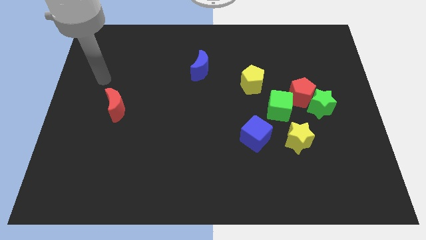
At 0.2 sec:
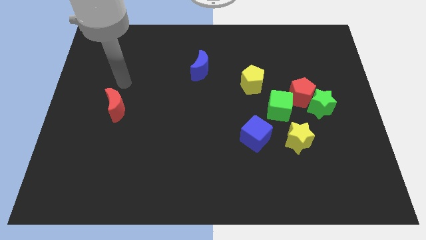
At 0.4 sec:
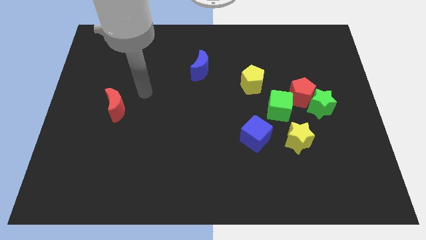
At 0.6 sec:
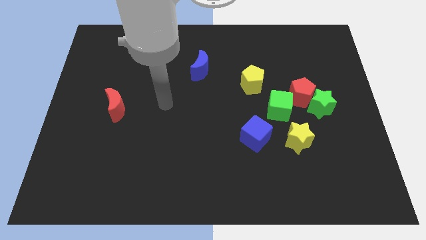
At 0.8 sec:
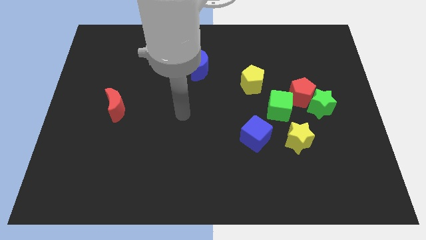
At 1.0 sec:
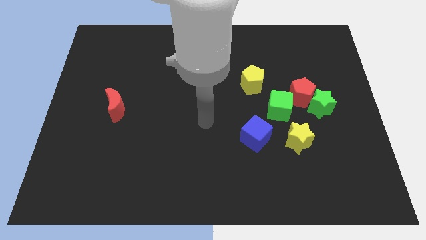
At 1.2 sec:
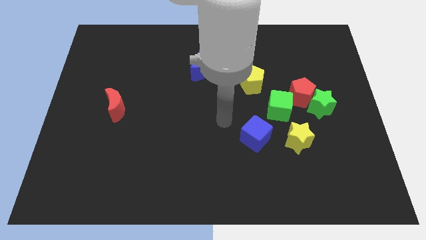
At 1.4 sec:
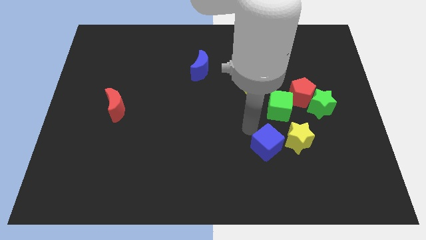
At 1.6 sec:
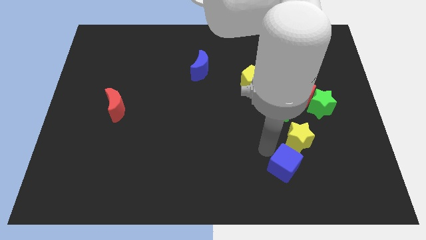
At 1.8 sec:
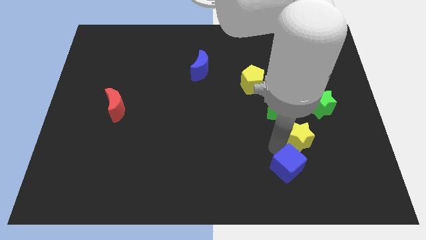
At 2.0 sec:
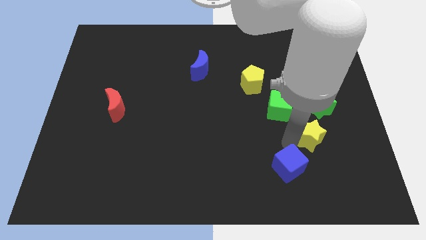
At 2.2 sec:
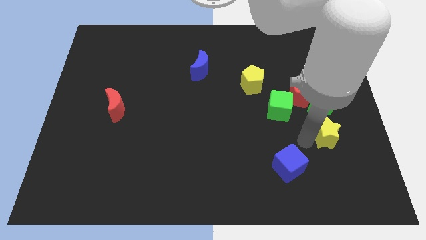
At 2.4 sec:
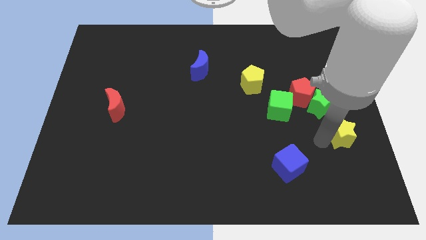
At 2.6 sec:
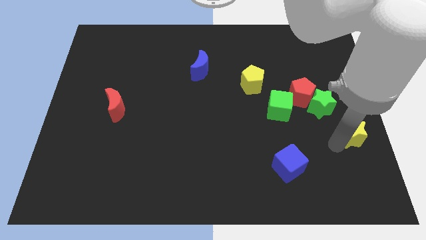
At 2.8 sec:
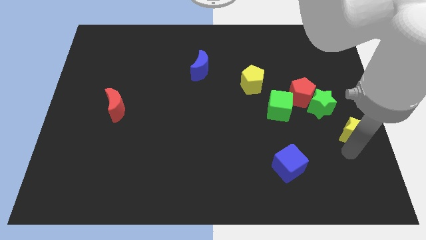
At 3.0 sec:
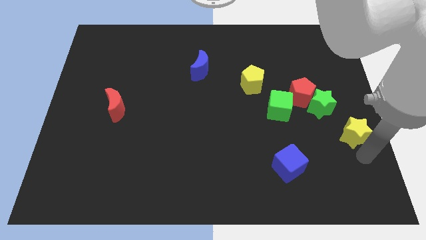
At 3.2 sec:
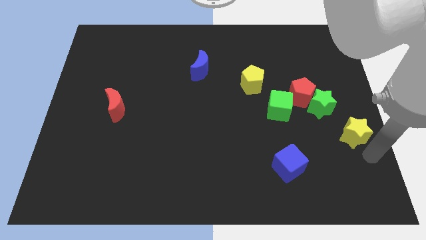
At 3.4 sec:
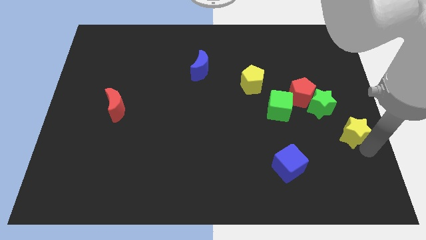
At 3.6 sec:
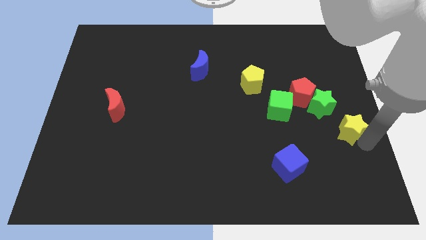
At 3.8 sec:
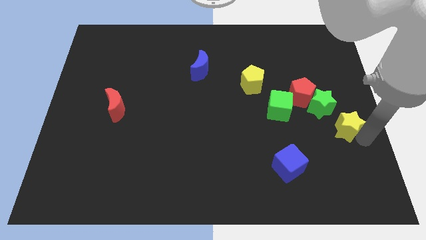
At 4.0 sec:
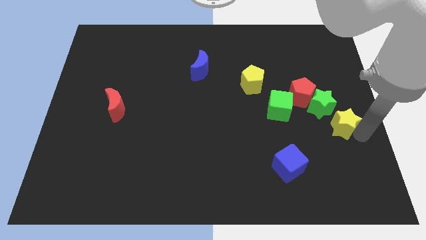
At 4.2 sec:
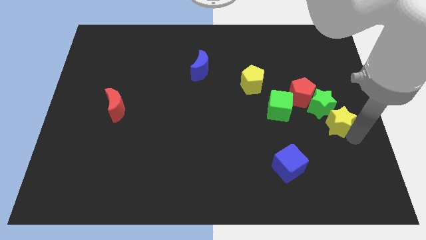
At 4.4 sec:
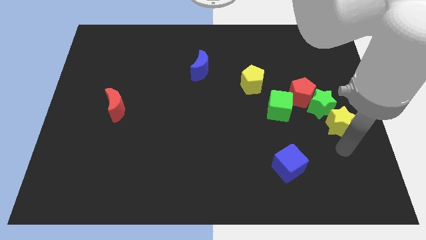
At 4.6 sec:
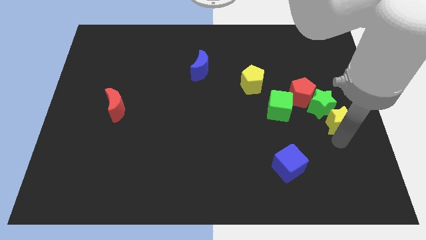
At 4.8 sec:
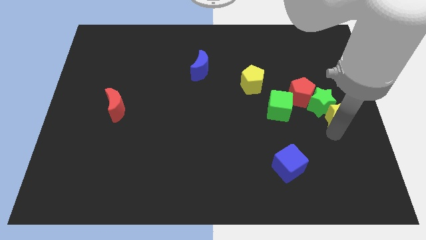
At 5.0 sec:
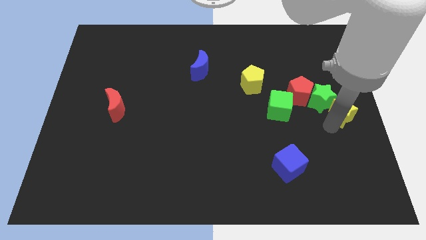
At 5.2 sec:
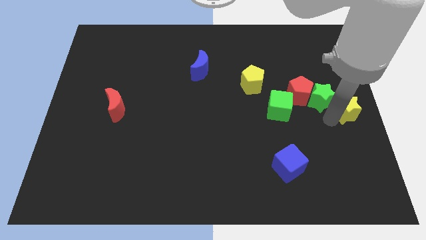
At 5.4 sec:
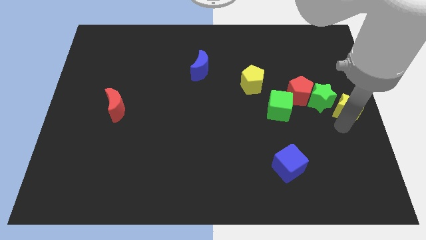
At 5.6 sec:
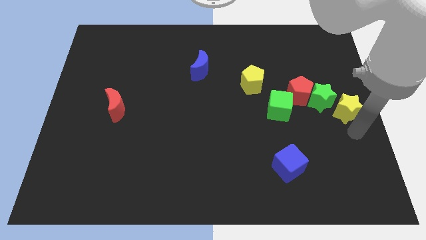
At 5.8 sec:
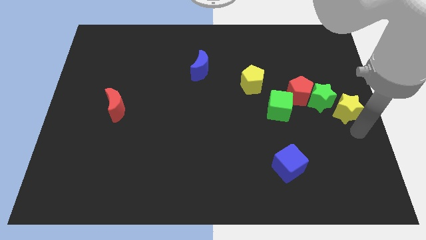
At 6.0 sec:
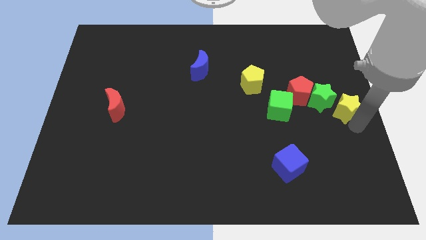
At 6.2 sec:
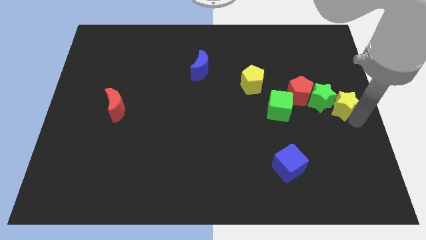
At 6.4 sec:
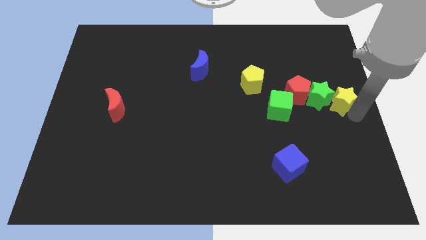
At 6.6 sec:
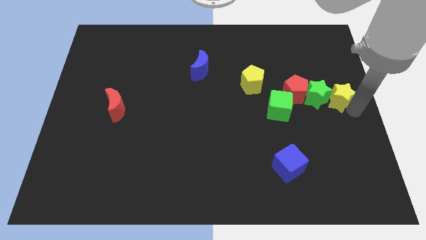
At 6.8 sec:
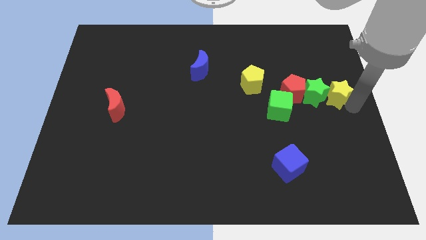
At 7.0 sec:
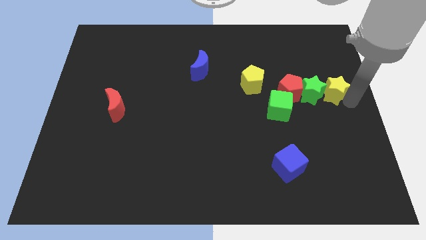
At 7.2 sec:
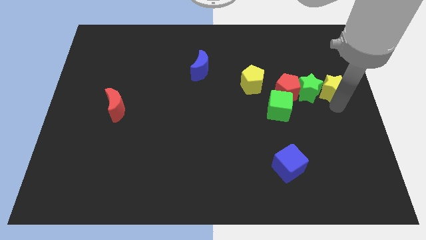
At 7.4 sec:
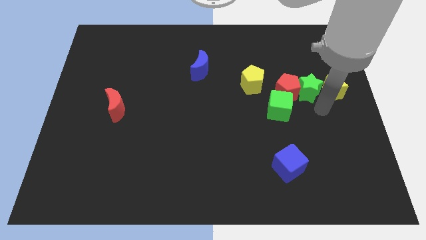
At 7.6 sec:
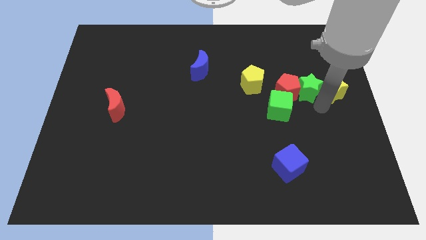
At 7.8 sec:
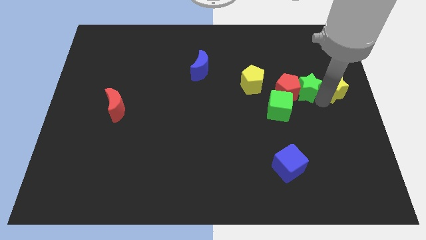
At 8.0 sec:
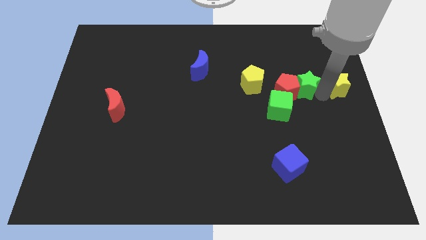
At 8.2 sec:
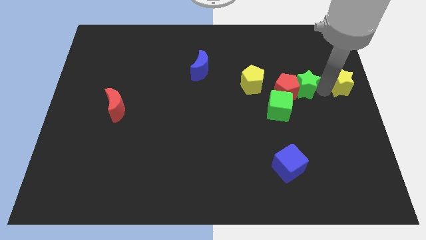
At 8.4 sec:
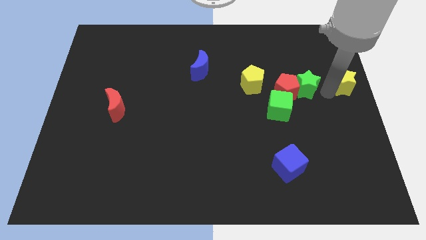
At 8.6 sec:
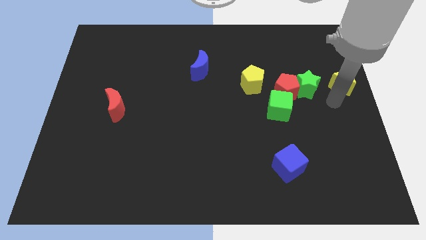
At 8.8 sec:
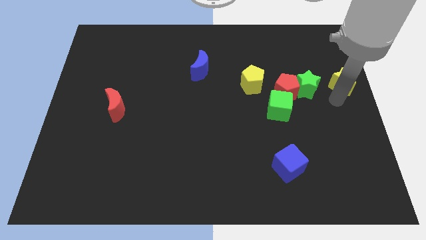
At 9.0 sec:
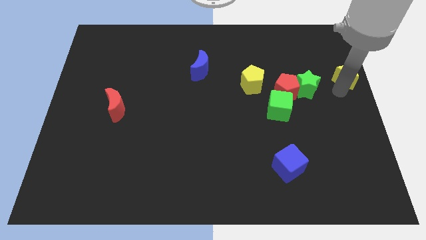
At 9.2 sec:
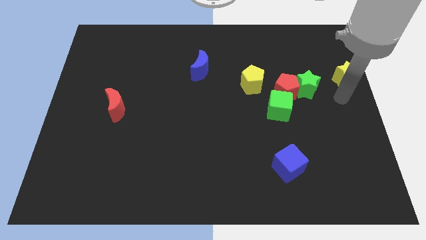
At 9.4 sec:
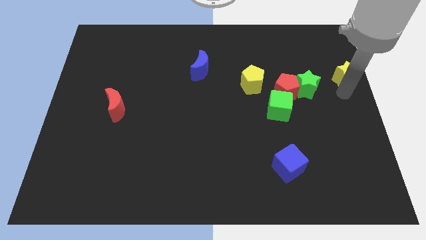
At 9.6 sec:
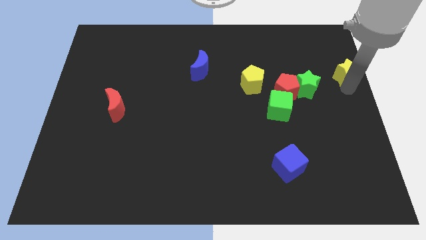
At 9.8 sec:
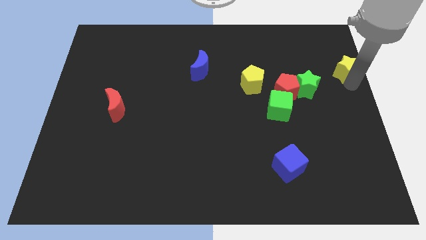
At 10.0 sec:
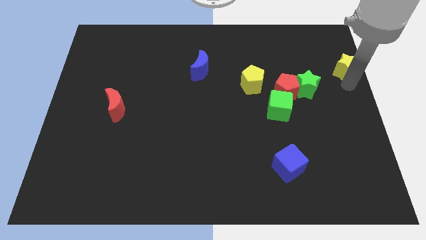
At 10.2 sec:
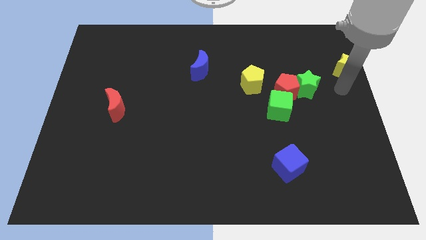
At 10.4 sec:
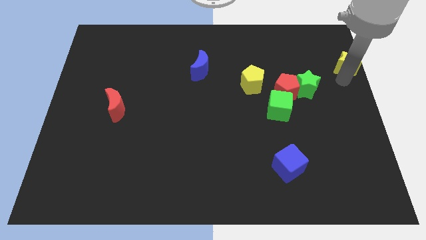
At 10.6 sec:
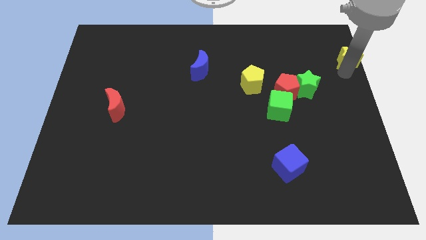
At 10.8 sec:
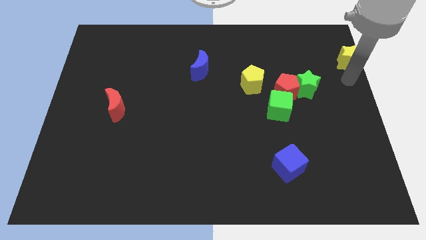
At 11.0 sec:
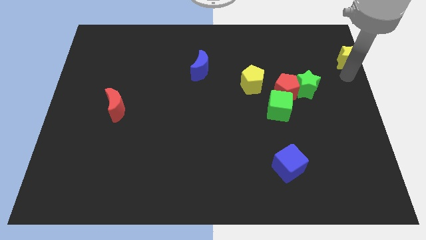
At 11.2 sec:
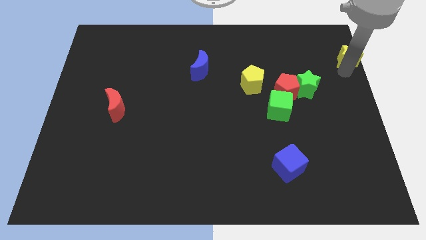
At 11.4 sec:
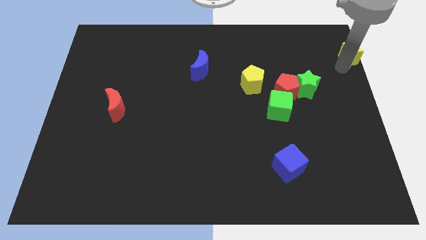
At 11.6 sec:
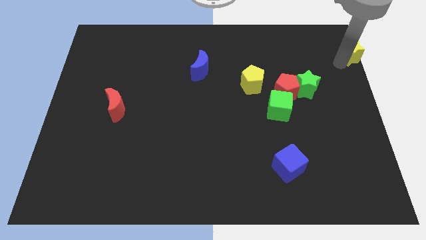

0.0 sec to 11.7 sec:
push the yellow star to the top right corner

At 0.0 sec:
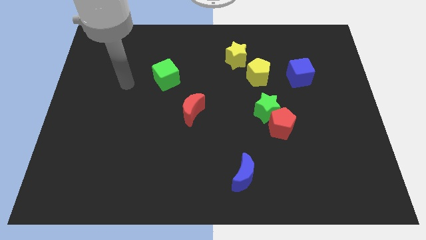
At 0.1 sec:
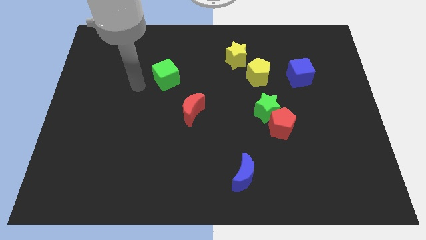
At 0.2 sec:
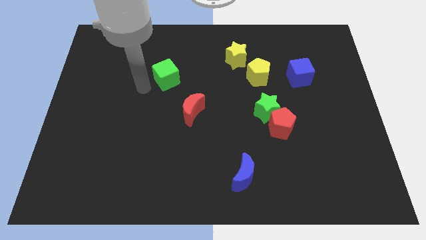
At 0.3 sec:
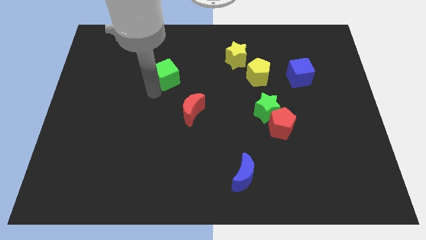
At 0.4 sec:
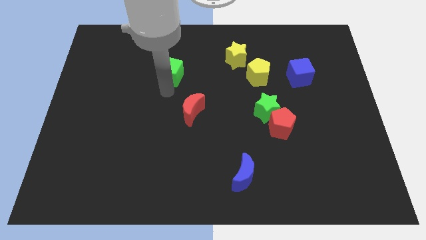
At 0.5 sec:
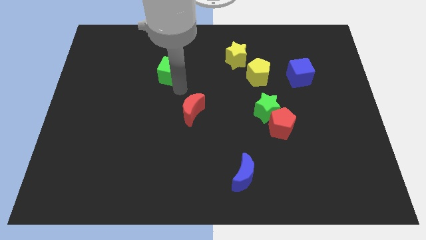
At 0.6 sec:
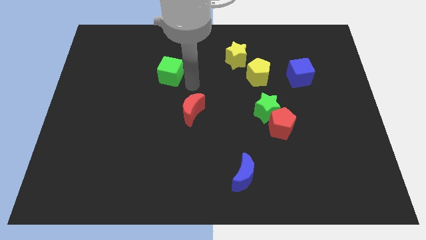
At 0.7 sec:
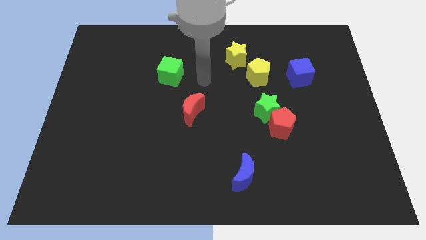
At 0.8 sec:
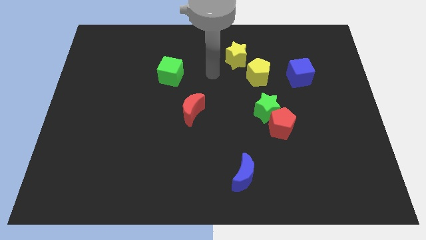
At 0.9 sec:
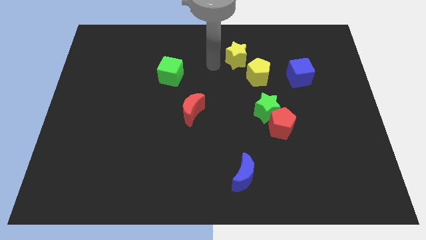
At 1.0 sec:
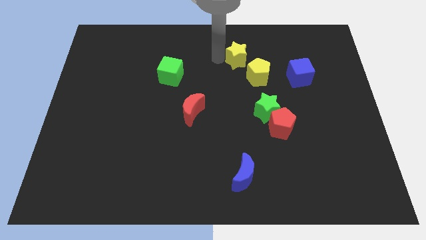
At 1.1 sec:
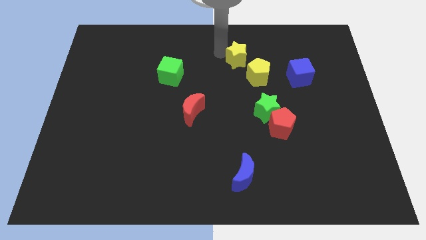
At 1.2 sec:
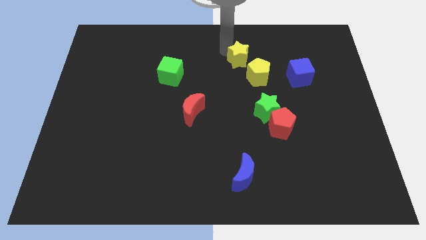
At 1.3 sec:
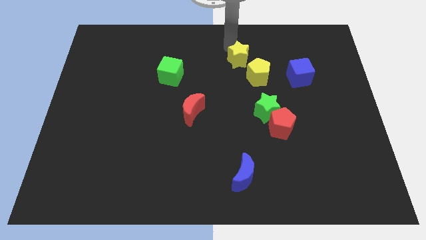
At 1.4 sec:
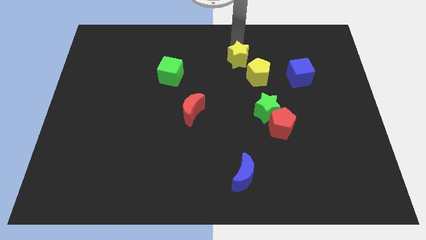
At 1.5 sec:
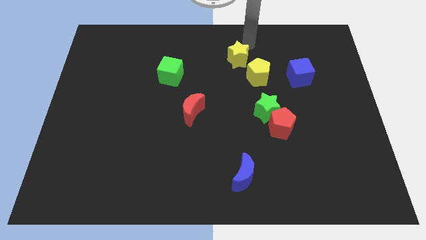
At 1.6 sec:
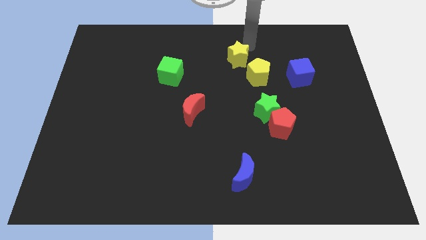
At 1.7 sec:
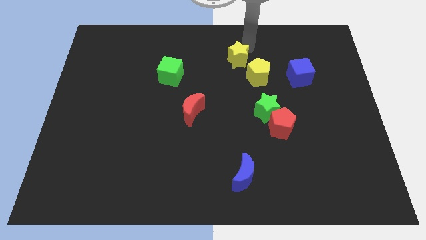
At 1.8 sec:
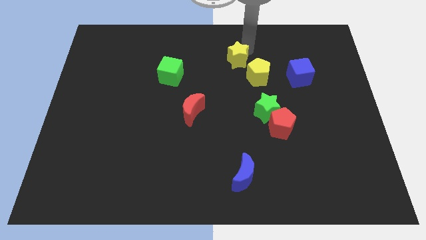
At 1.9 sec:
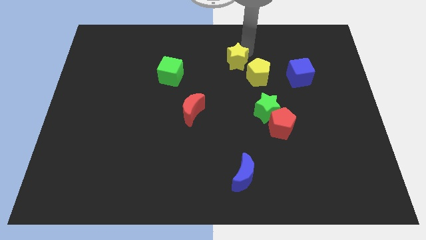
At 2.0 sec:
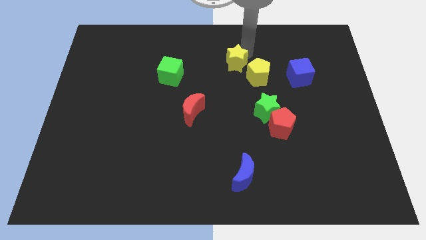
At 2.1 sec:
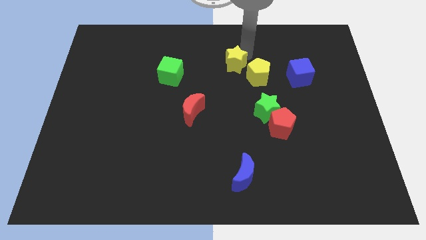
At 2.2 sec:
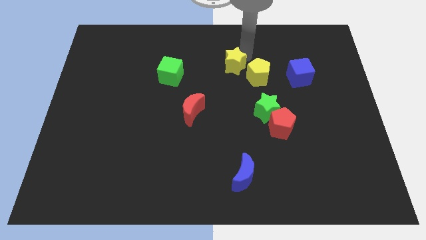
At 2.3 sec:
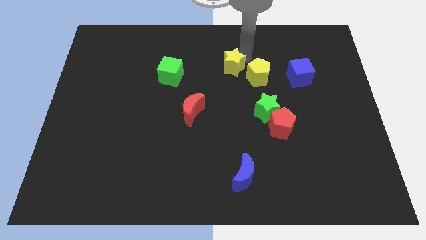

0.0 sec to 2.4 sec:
put the yellow star to the center of the board
